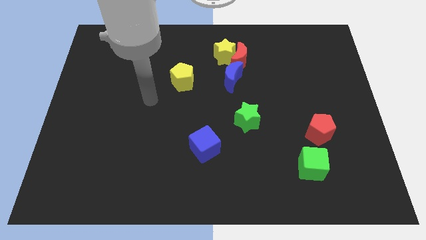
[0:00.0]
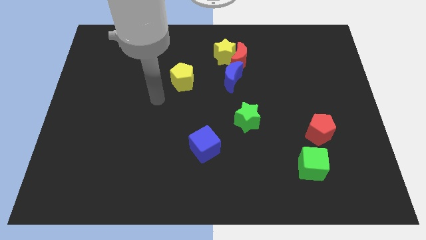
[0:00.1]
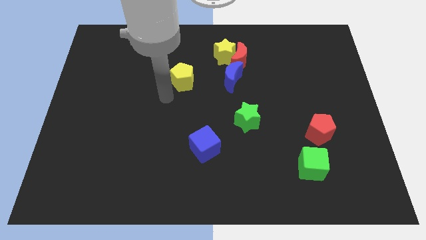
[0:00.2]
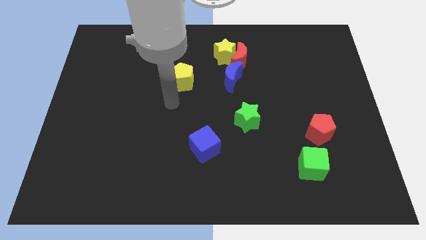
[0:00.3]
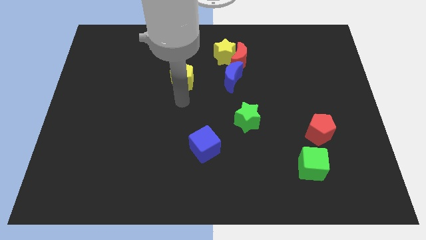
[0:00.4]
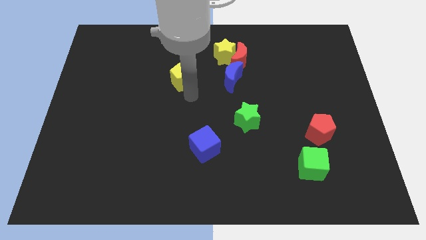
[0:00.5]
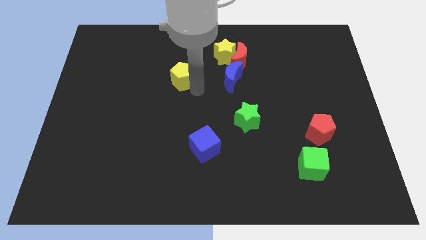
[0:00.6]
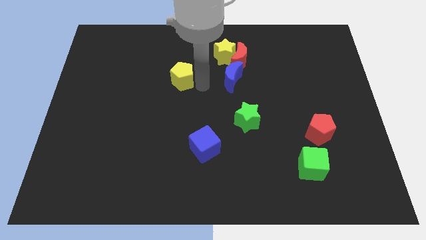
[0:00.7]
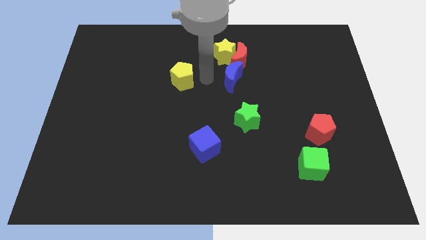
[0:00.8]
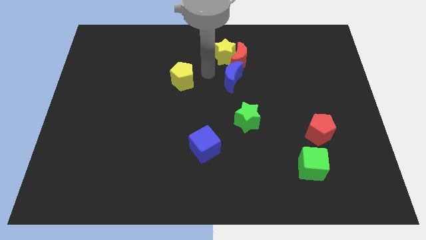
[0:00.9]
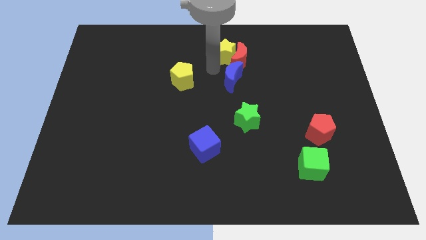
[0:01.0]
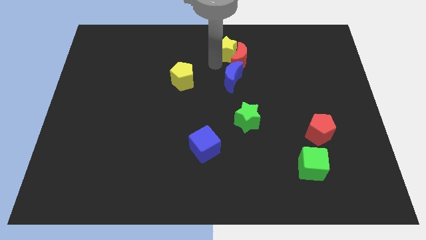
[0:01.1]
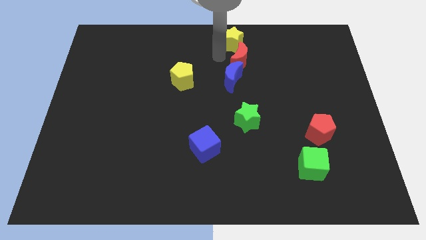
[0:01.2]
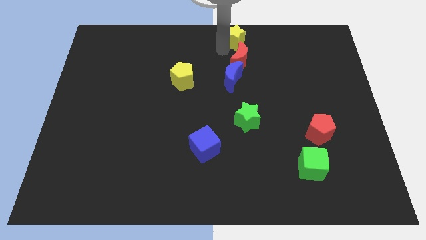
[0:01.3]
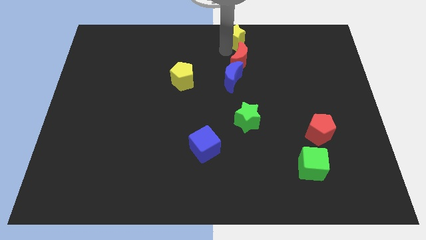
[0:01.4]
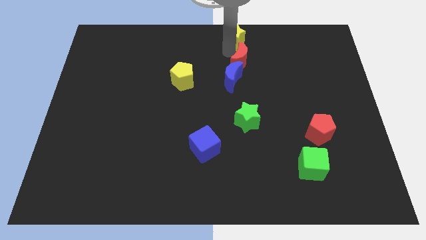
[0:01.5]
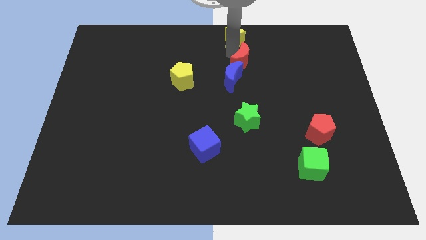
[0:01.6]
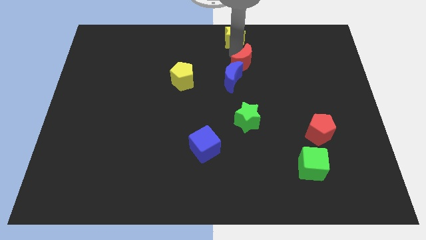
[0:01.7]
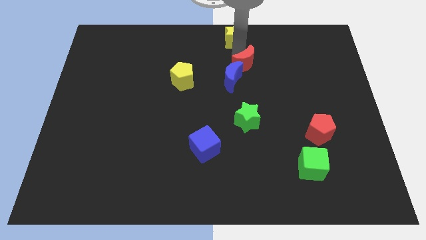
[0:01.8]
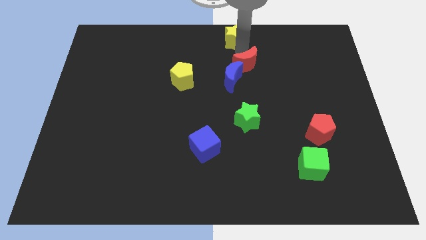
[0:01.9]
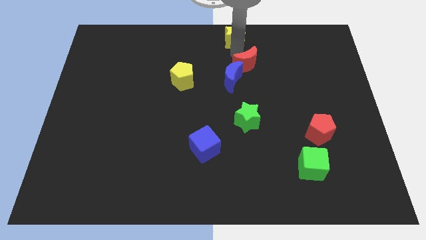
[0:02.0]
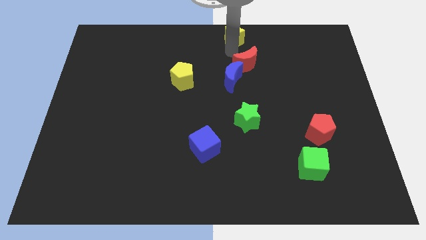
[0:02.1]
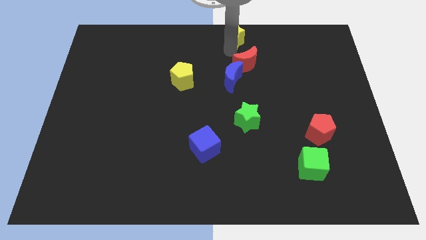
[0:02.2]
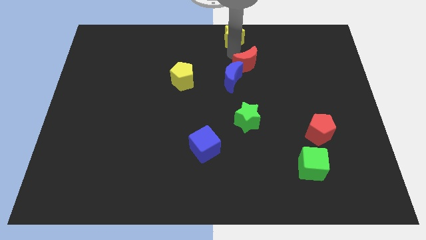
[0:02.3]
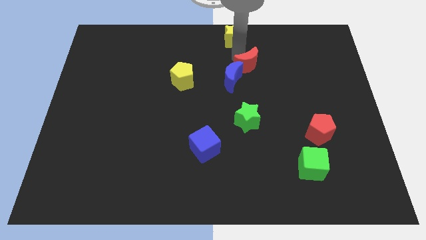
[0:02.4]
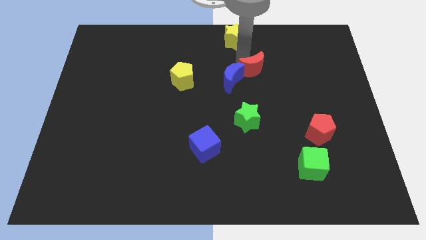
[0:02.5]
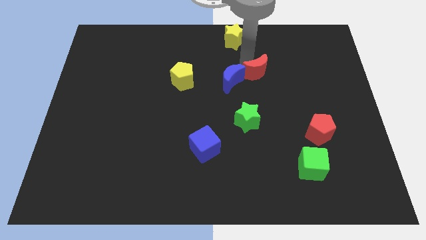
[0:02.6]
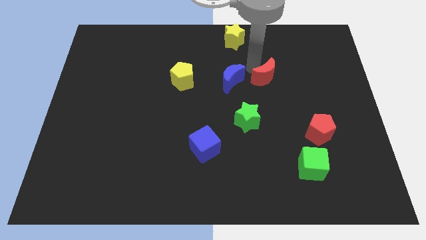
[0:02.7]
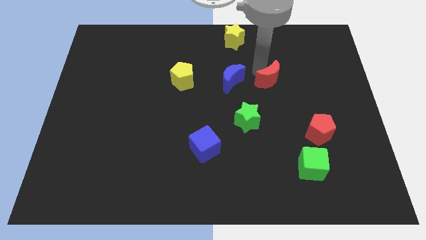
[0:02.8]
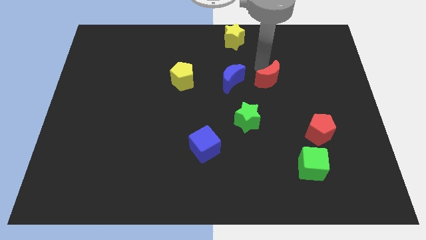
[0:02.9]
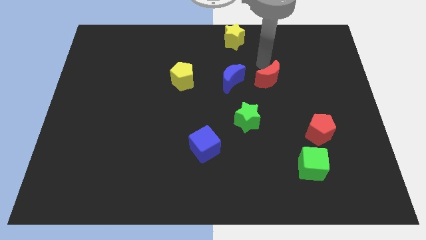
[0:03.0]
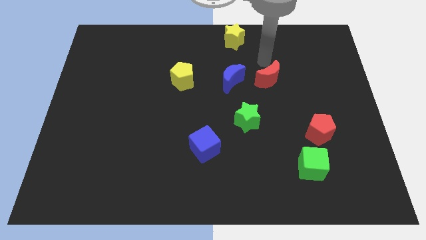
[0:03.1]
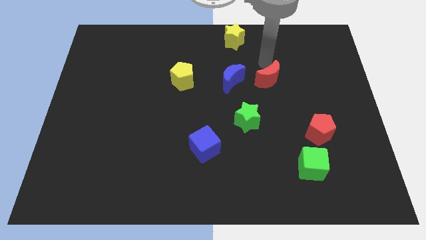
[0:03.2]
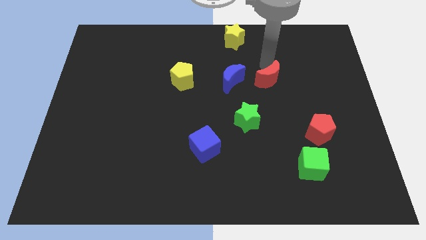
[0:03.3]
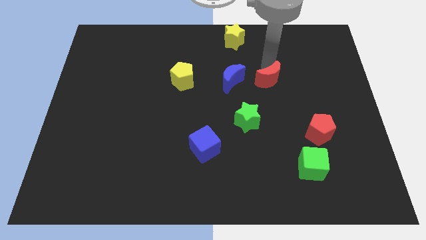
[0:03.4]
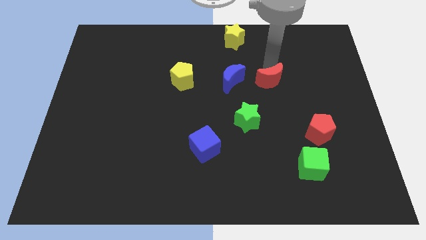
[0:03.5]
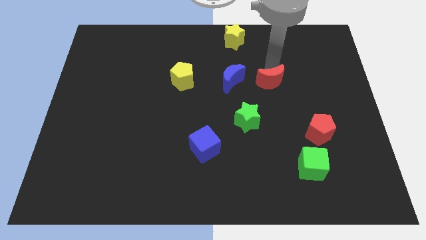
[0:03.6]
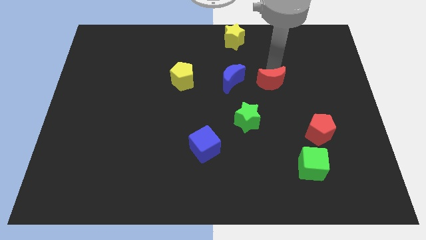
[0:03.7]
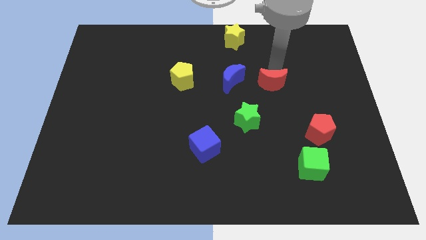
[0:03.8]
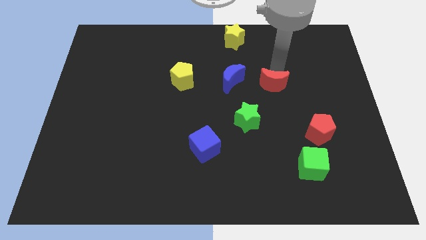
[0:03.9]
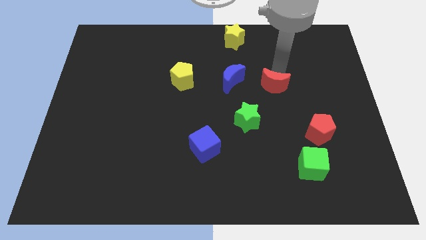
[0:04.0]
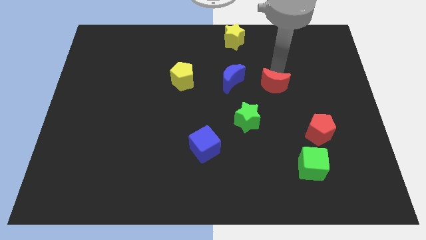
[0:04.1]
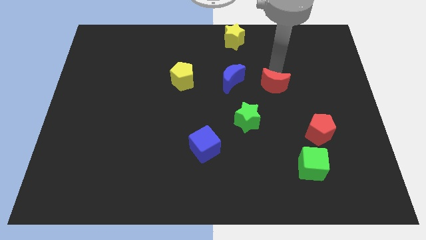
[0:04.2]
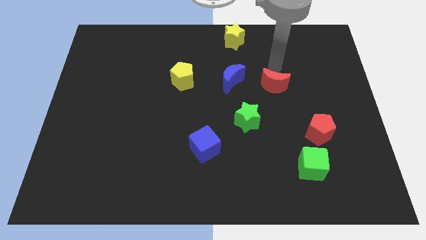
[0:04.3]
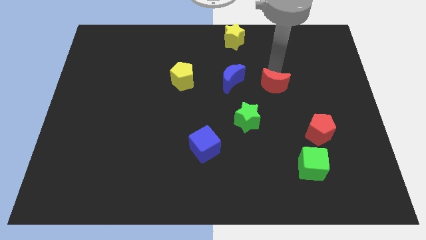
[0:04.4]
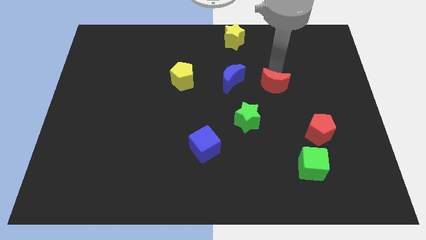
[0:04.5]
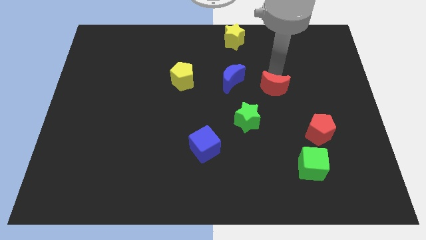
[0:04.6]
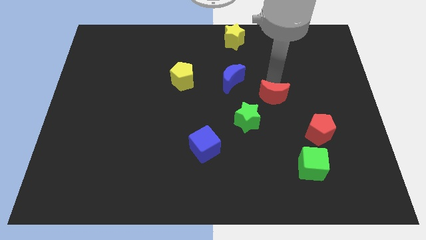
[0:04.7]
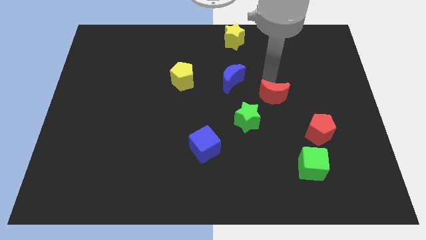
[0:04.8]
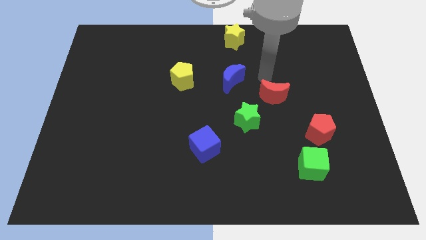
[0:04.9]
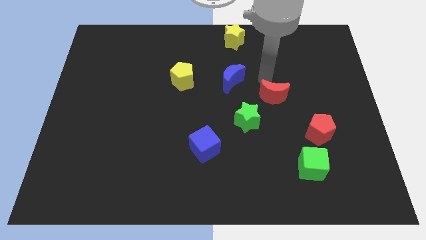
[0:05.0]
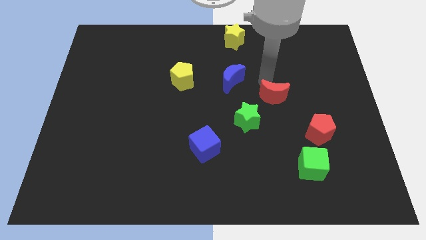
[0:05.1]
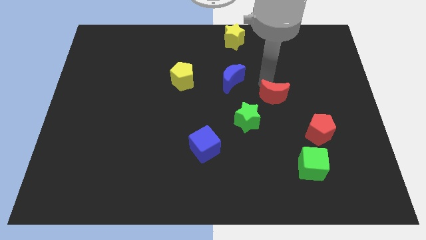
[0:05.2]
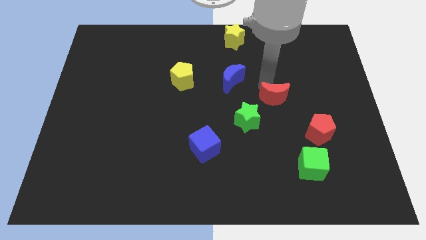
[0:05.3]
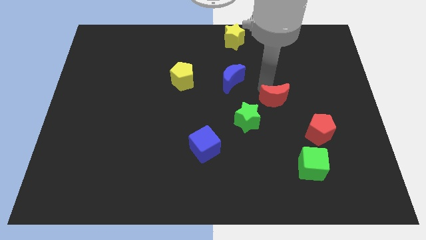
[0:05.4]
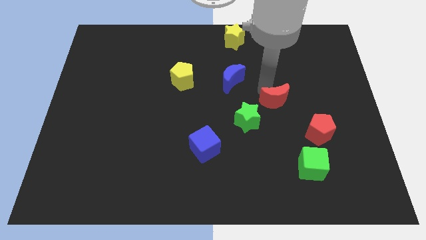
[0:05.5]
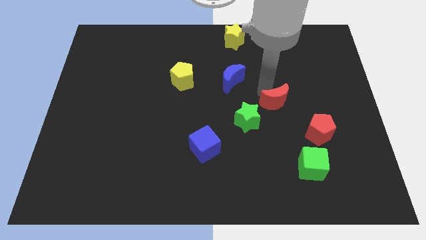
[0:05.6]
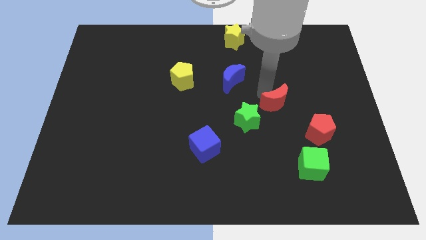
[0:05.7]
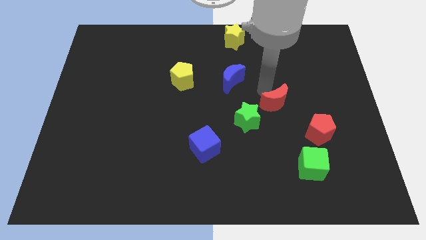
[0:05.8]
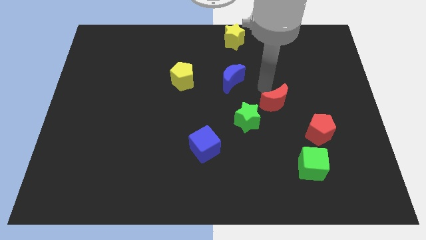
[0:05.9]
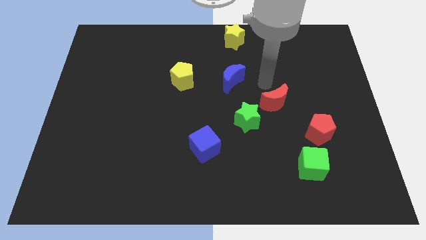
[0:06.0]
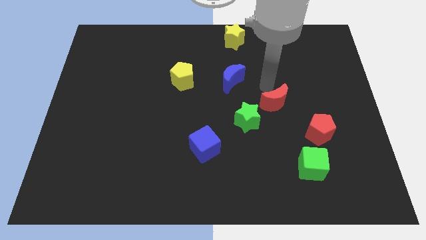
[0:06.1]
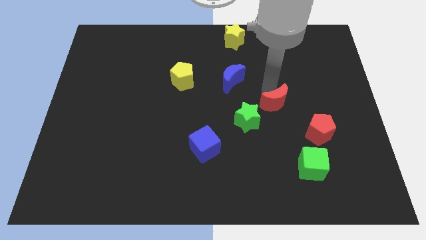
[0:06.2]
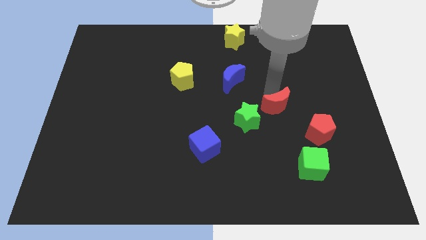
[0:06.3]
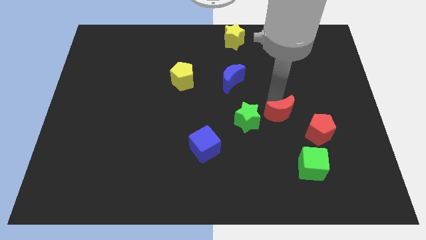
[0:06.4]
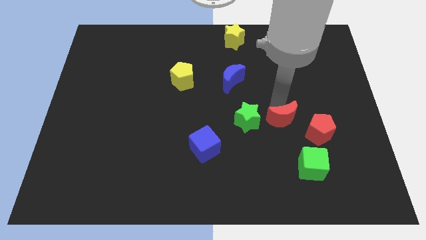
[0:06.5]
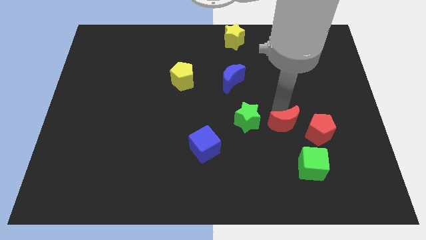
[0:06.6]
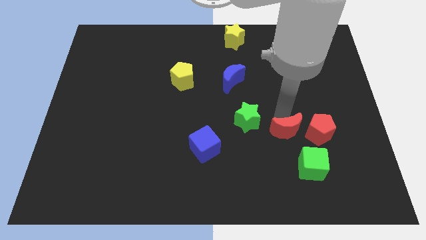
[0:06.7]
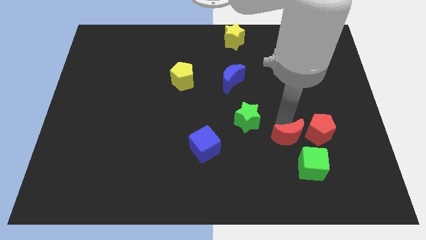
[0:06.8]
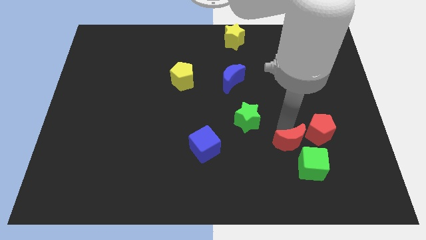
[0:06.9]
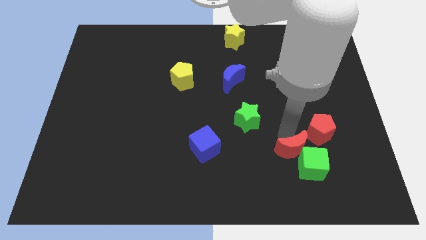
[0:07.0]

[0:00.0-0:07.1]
move the red moon close to the green cube
